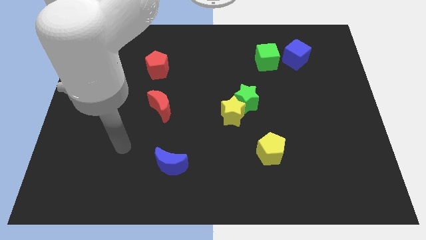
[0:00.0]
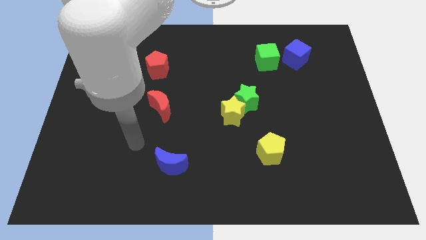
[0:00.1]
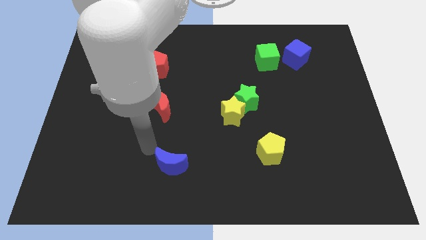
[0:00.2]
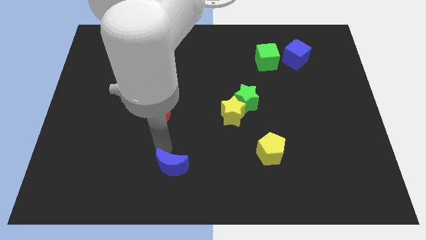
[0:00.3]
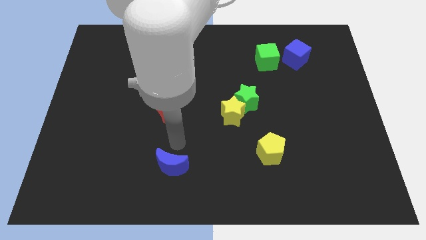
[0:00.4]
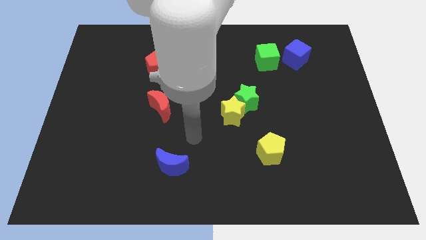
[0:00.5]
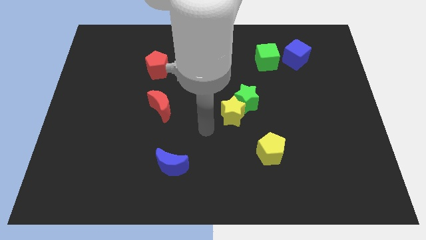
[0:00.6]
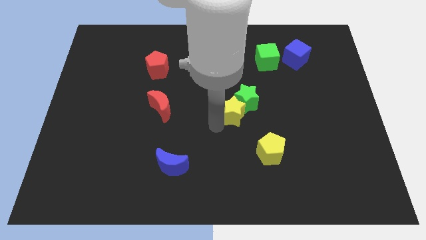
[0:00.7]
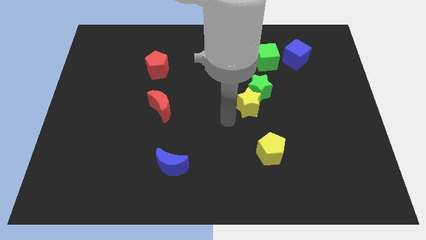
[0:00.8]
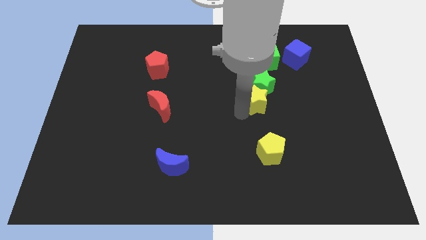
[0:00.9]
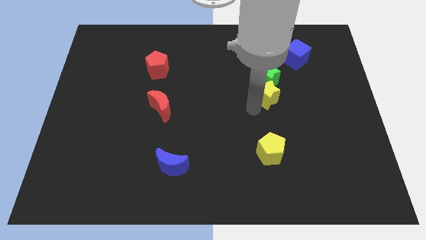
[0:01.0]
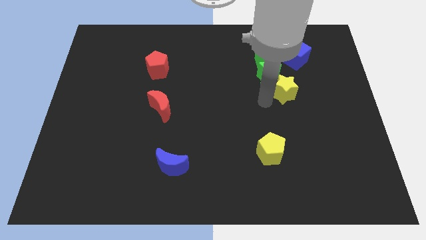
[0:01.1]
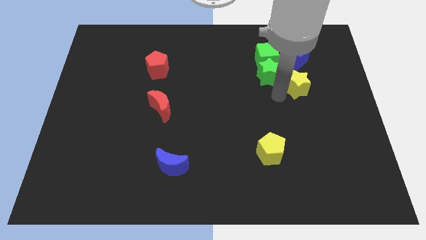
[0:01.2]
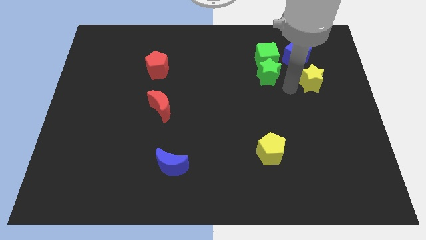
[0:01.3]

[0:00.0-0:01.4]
pull the green star apart from the yellow star

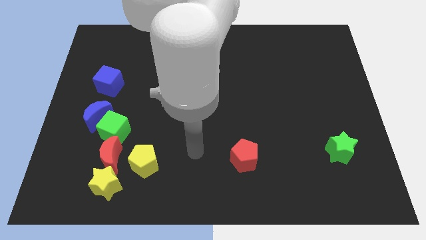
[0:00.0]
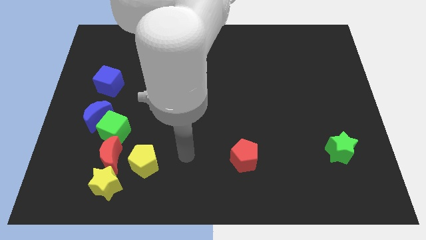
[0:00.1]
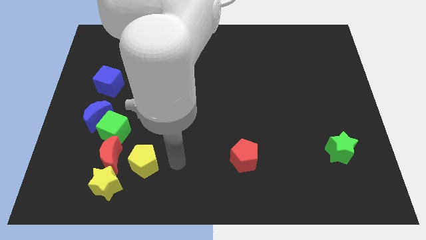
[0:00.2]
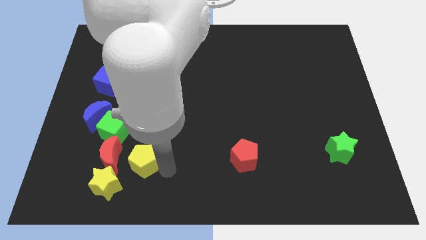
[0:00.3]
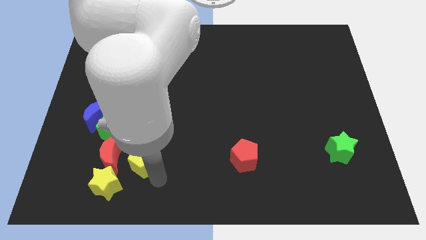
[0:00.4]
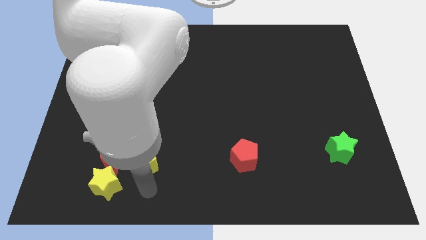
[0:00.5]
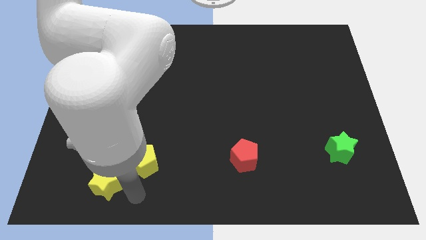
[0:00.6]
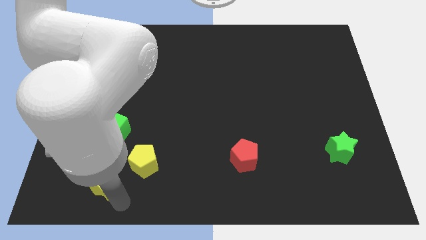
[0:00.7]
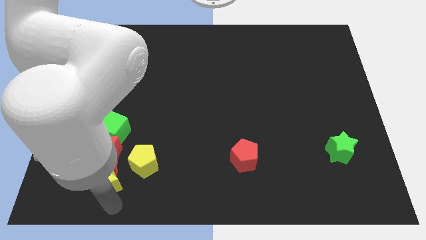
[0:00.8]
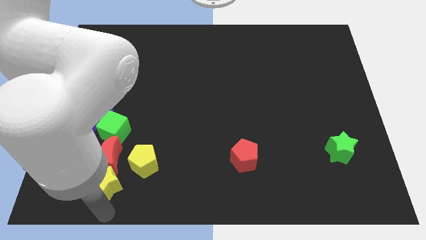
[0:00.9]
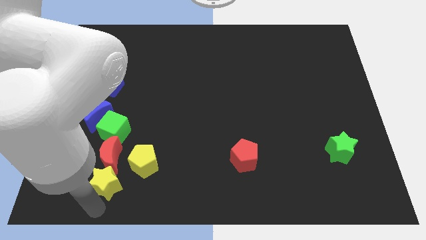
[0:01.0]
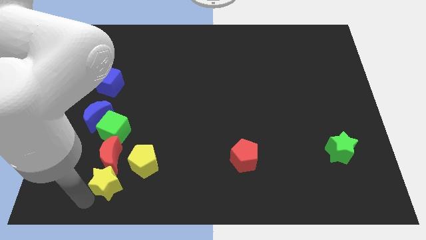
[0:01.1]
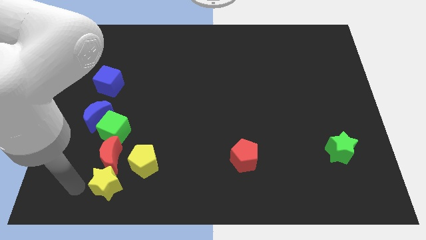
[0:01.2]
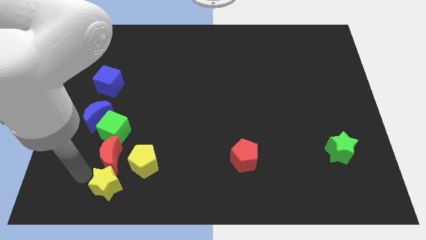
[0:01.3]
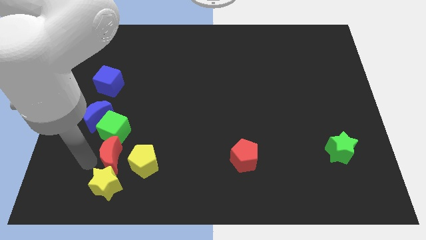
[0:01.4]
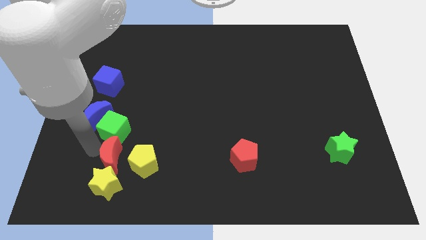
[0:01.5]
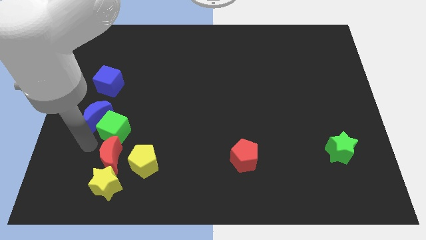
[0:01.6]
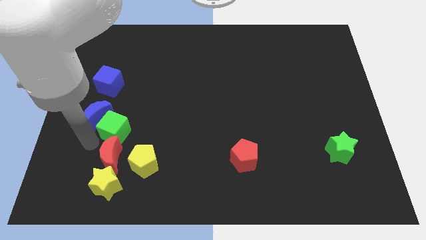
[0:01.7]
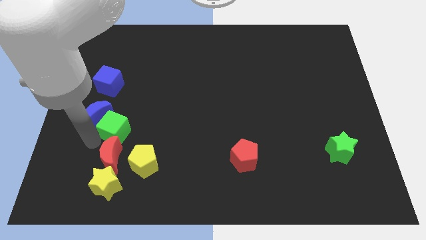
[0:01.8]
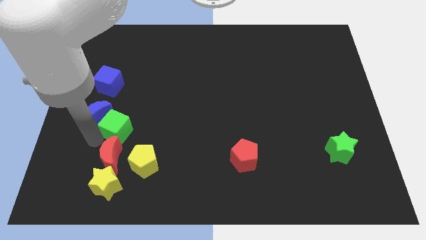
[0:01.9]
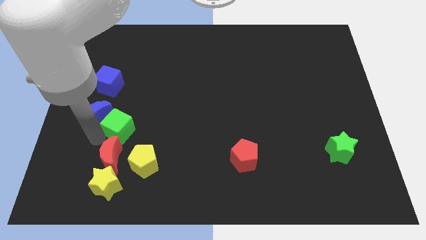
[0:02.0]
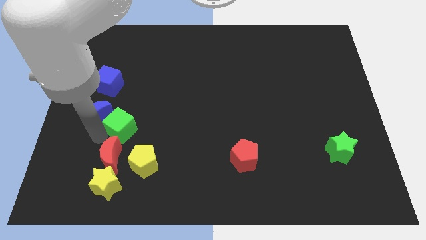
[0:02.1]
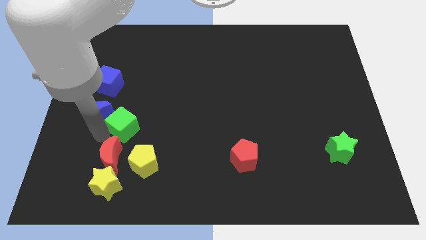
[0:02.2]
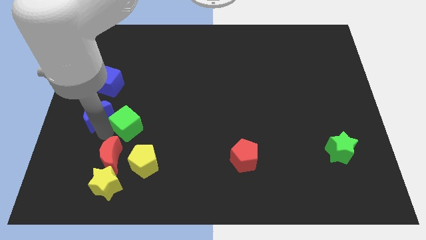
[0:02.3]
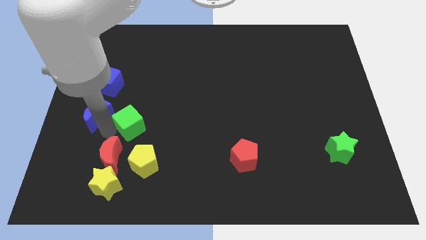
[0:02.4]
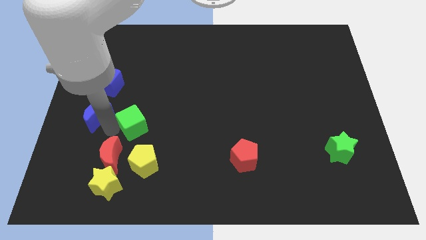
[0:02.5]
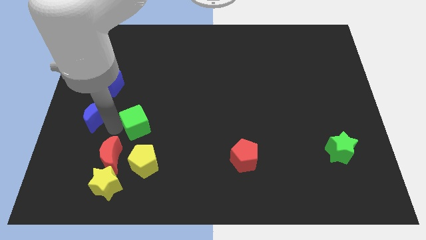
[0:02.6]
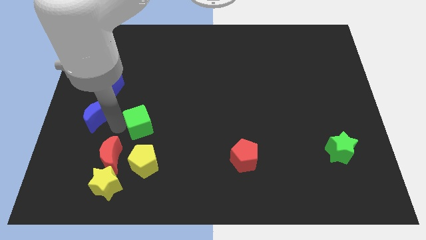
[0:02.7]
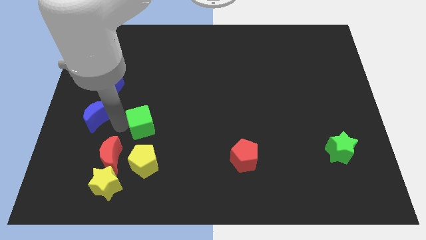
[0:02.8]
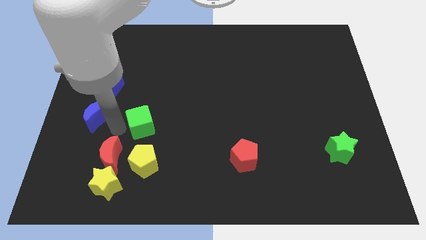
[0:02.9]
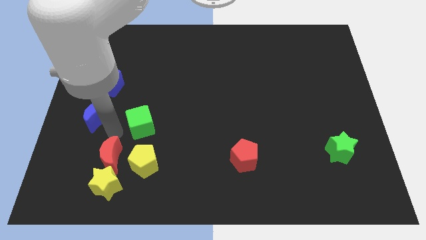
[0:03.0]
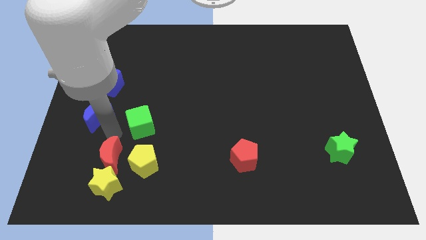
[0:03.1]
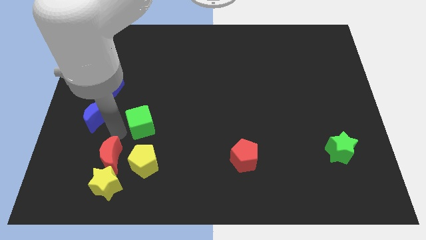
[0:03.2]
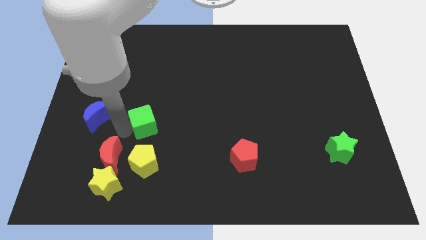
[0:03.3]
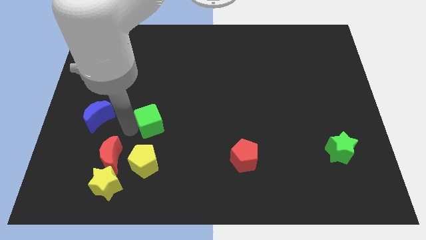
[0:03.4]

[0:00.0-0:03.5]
separate the green cube from the blue moon and red moon

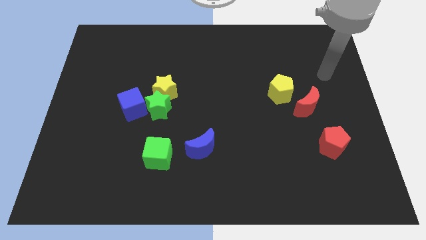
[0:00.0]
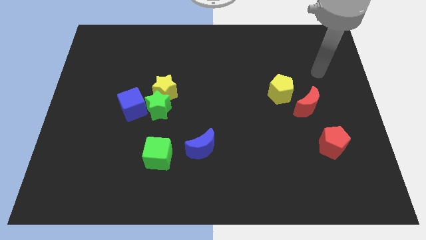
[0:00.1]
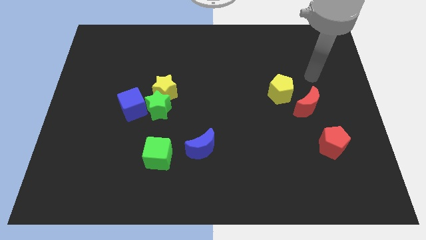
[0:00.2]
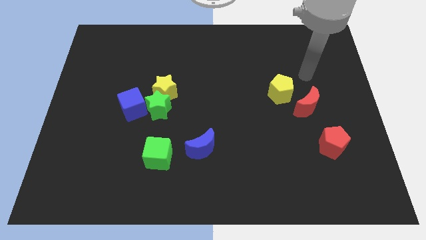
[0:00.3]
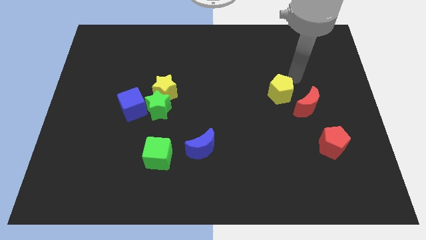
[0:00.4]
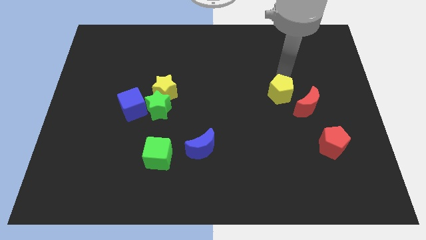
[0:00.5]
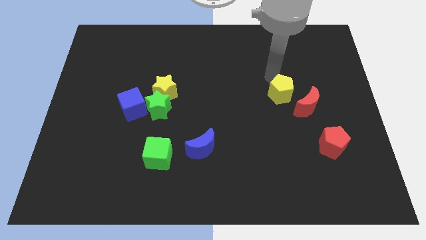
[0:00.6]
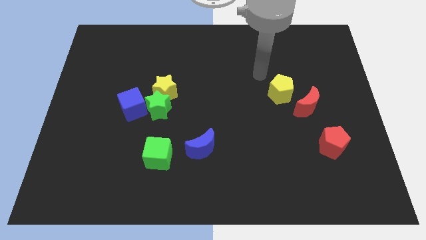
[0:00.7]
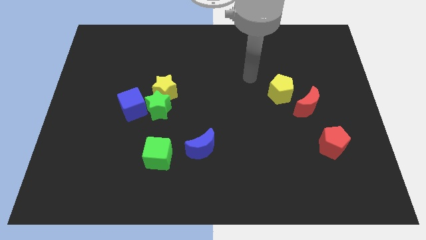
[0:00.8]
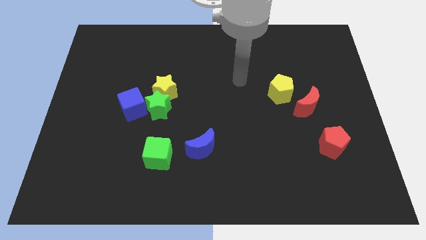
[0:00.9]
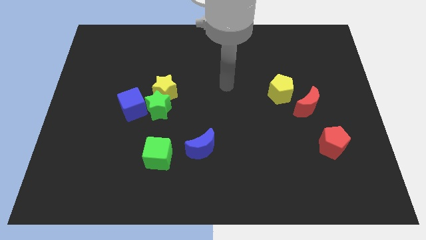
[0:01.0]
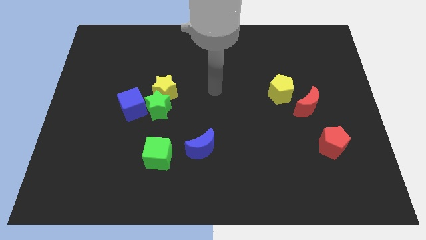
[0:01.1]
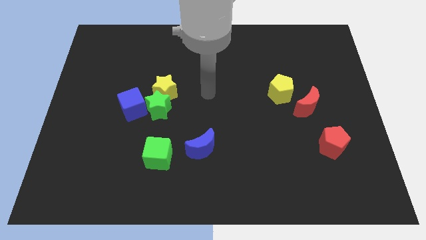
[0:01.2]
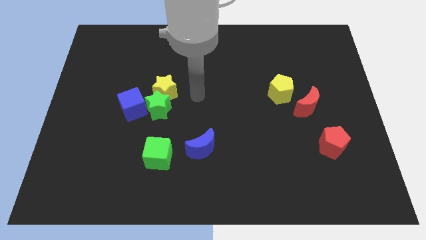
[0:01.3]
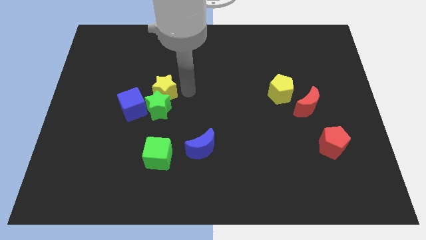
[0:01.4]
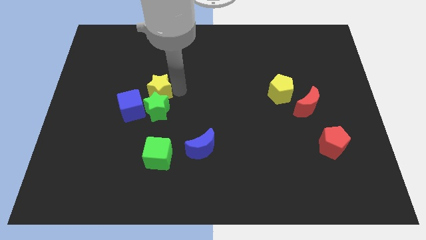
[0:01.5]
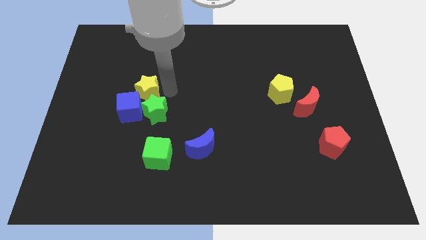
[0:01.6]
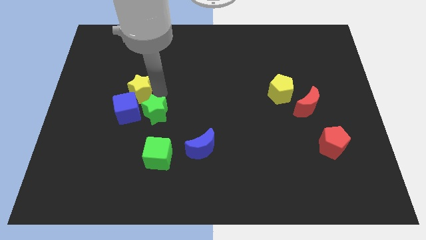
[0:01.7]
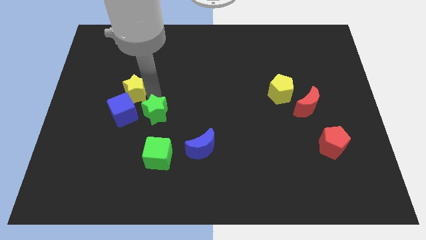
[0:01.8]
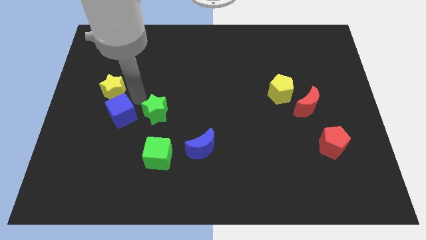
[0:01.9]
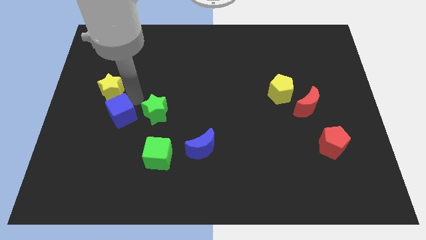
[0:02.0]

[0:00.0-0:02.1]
separate the green star from the yellow star and blue cube

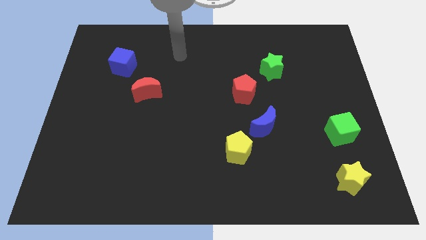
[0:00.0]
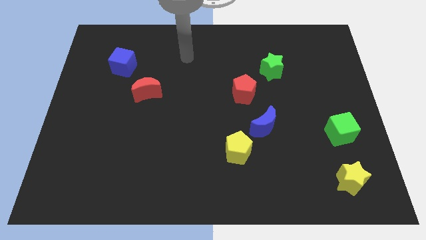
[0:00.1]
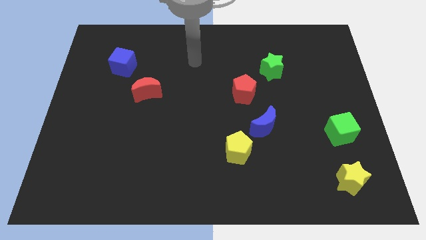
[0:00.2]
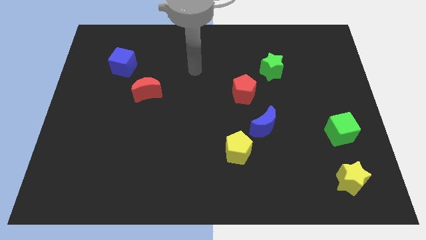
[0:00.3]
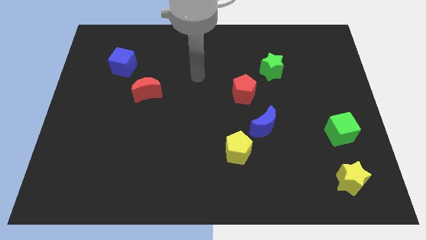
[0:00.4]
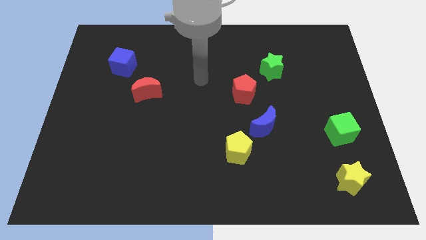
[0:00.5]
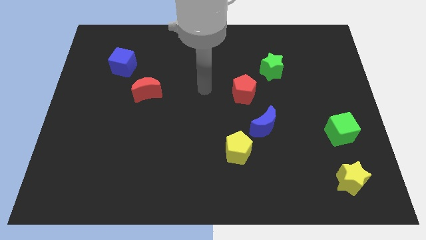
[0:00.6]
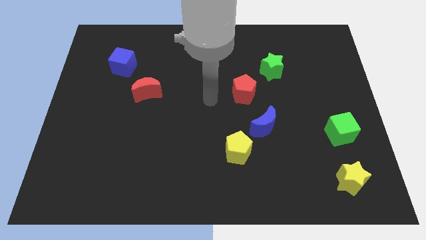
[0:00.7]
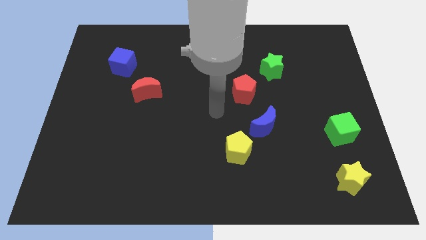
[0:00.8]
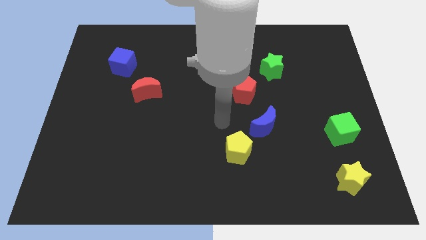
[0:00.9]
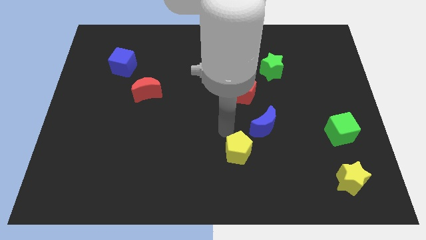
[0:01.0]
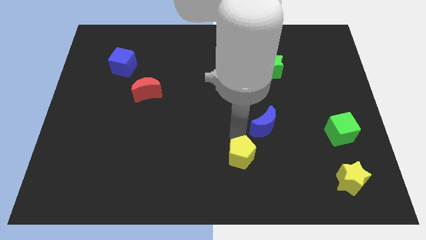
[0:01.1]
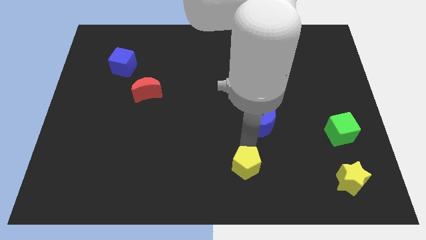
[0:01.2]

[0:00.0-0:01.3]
move the blue moon away from the yellow pentagon

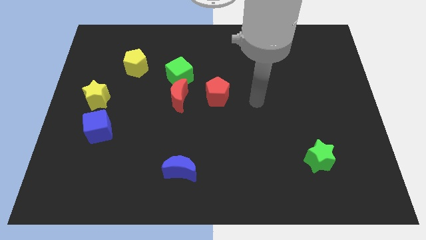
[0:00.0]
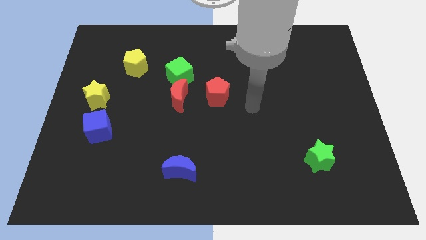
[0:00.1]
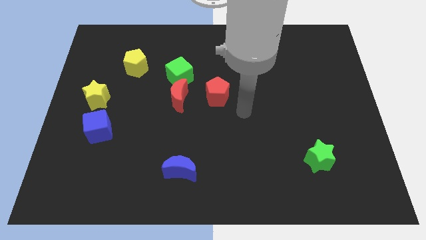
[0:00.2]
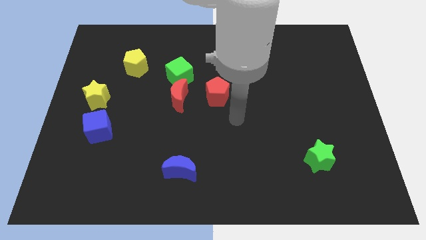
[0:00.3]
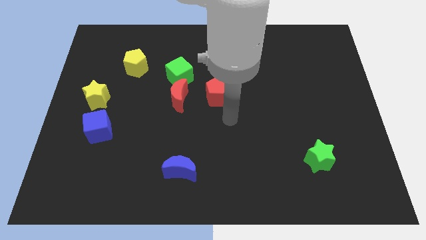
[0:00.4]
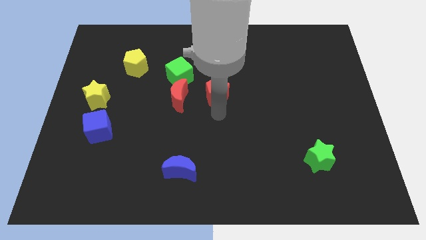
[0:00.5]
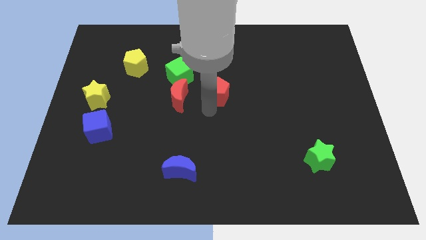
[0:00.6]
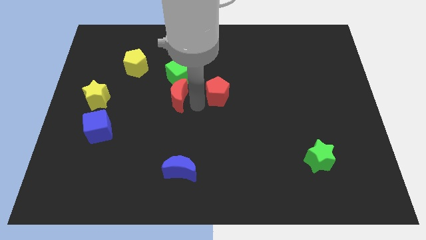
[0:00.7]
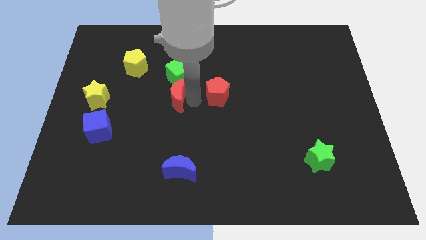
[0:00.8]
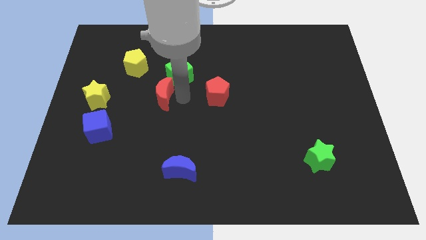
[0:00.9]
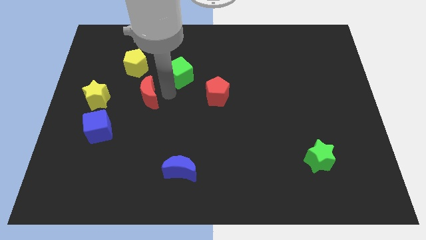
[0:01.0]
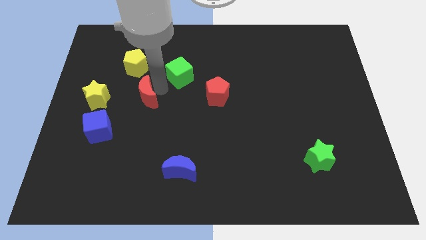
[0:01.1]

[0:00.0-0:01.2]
separate the green cube from the red moon
